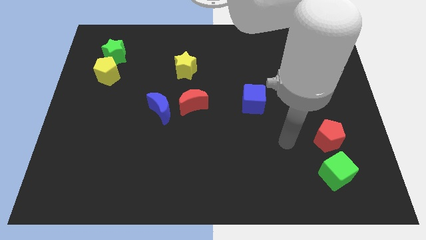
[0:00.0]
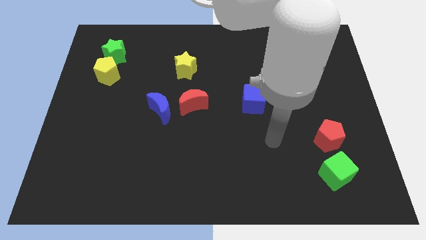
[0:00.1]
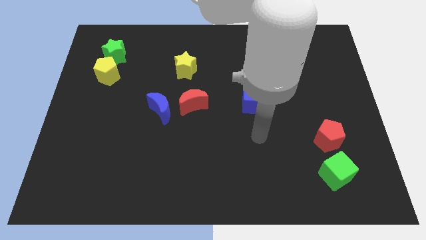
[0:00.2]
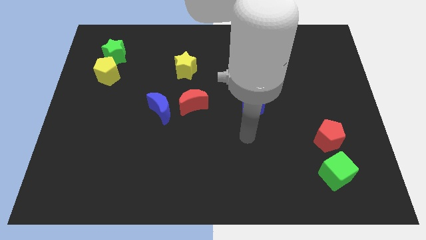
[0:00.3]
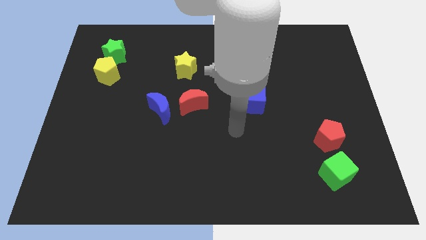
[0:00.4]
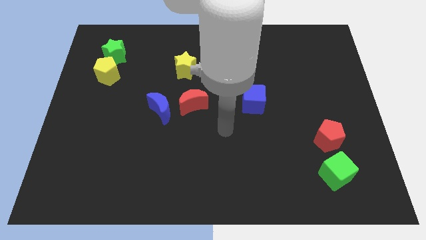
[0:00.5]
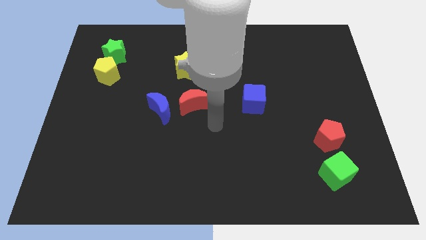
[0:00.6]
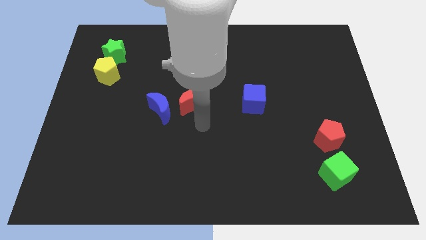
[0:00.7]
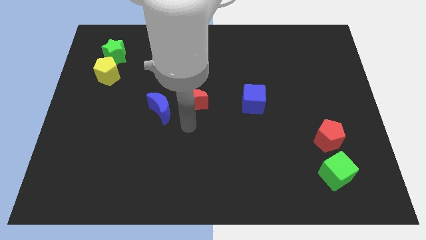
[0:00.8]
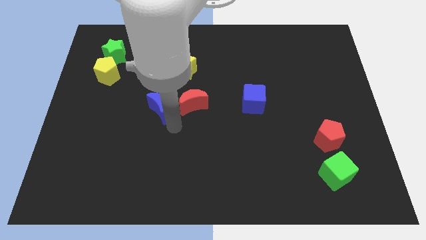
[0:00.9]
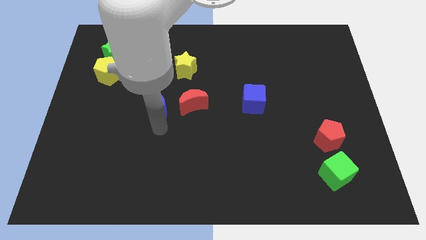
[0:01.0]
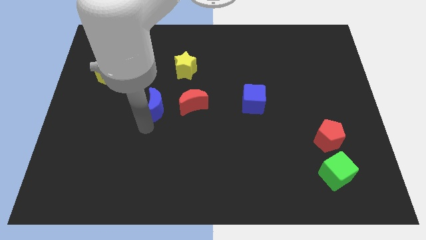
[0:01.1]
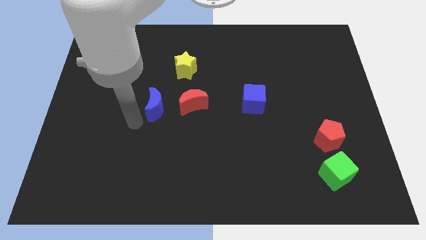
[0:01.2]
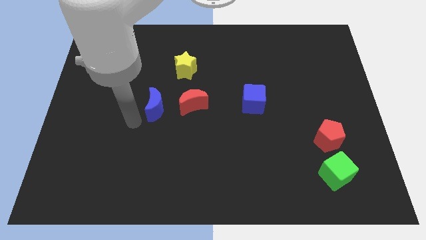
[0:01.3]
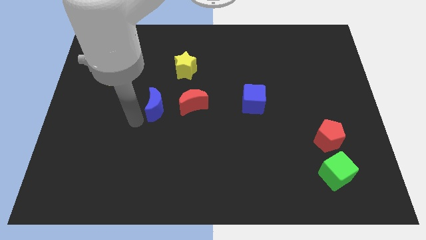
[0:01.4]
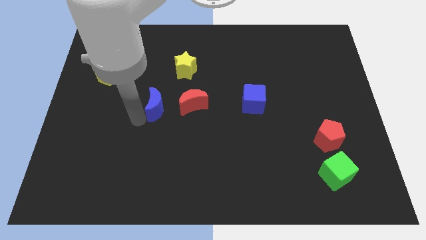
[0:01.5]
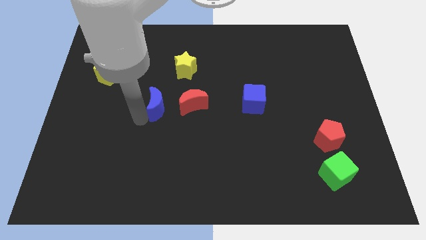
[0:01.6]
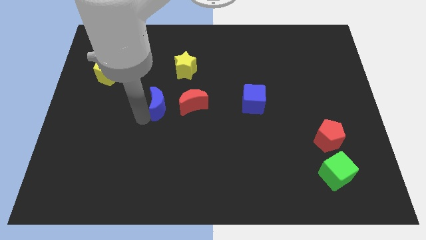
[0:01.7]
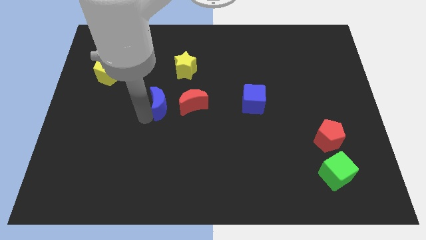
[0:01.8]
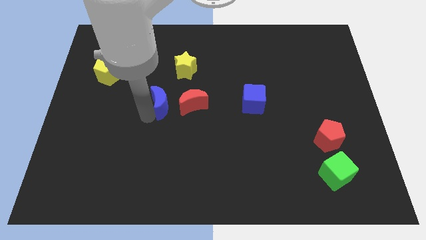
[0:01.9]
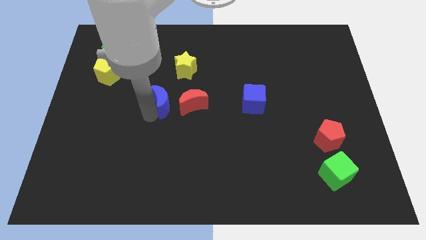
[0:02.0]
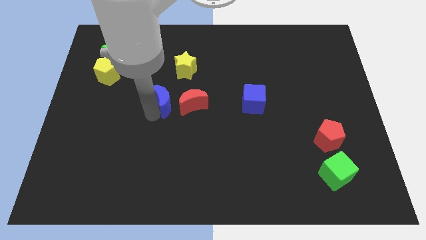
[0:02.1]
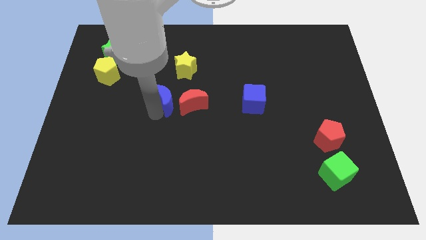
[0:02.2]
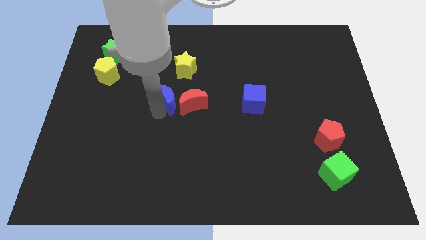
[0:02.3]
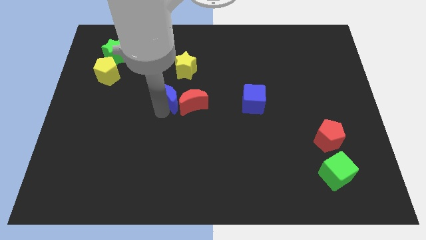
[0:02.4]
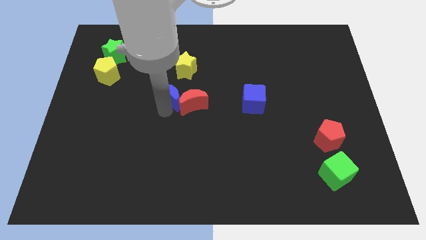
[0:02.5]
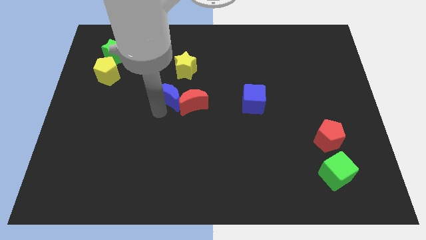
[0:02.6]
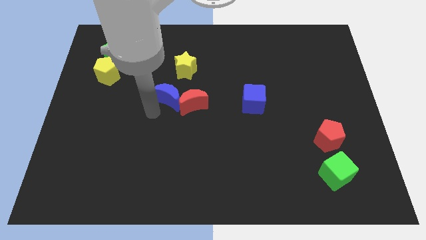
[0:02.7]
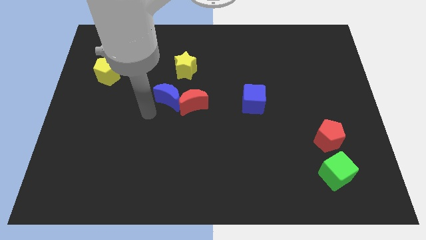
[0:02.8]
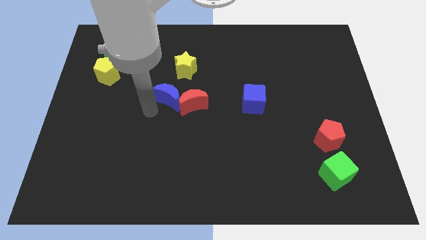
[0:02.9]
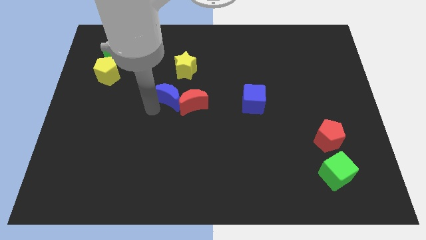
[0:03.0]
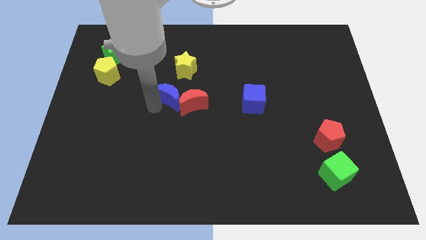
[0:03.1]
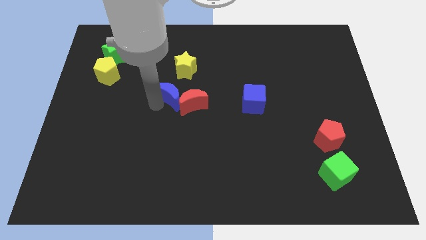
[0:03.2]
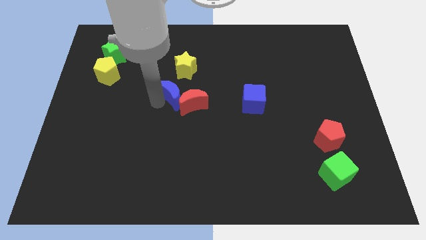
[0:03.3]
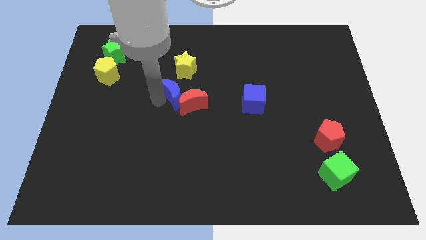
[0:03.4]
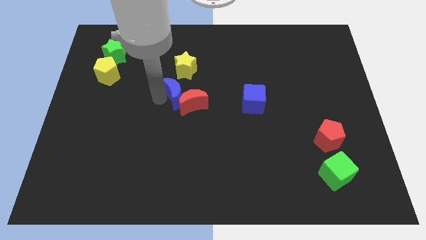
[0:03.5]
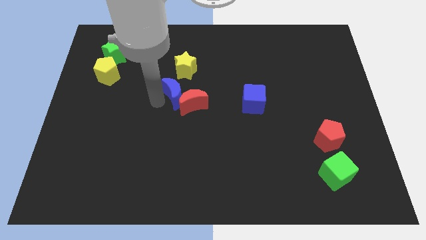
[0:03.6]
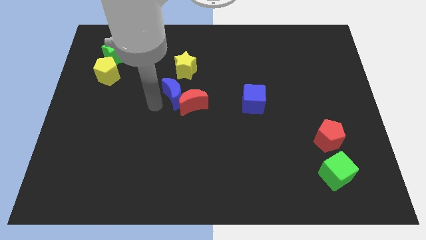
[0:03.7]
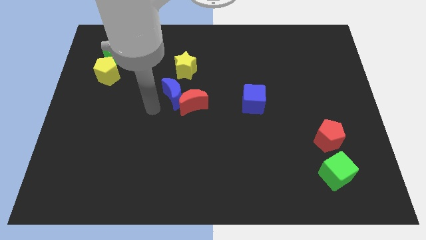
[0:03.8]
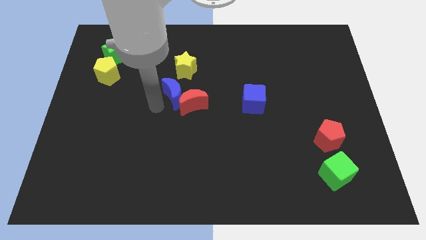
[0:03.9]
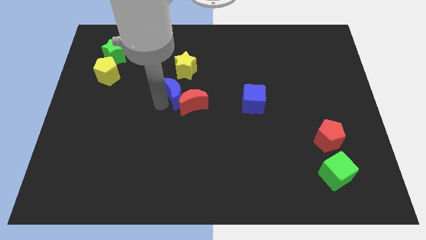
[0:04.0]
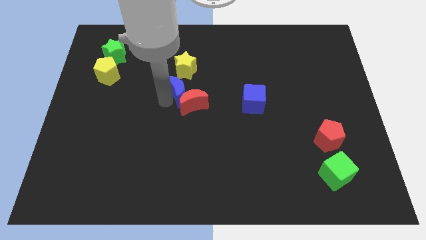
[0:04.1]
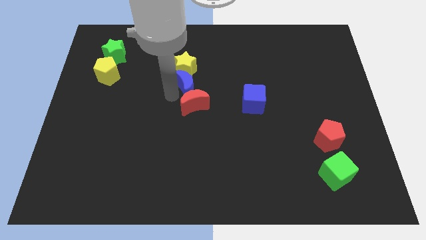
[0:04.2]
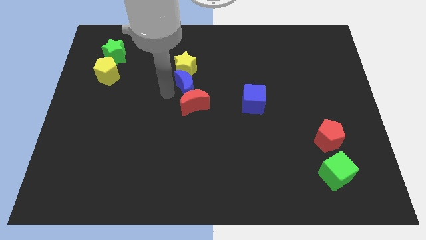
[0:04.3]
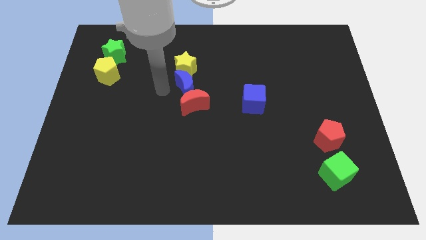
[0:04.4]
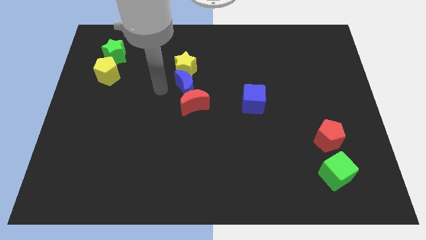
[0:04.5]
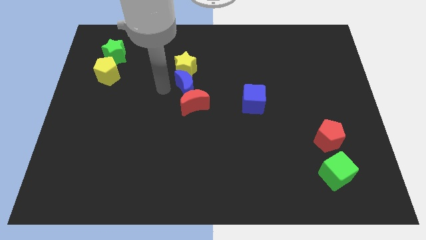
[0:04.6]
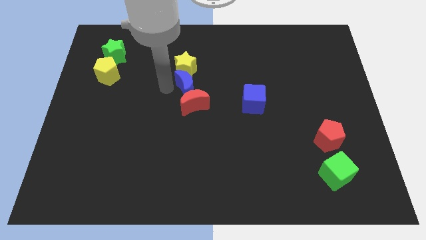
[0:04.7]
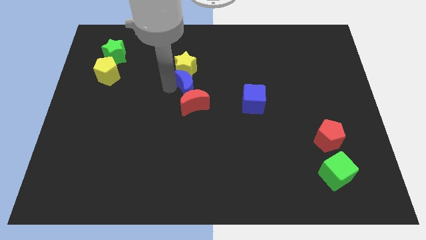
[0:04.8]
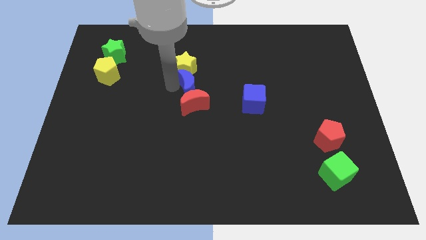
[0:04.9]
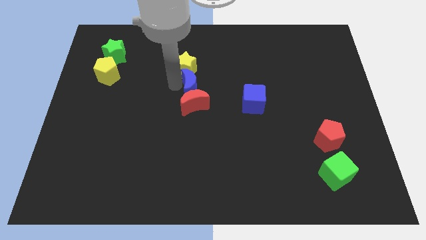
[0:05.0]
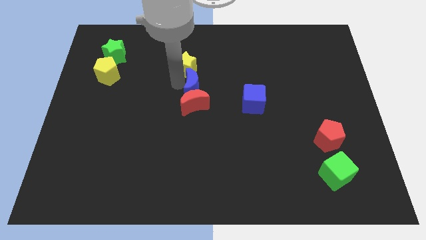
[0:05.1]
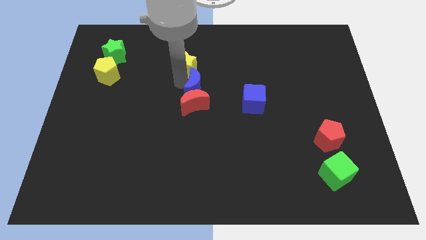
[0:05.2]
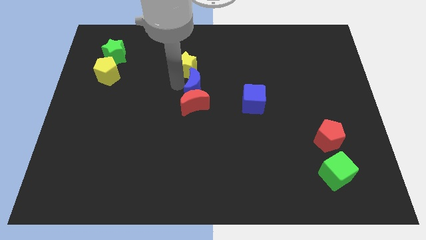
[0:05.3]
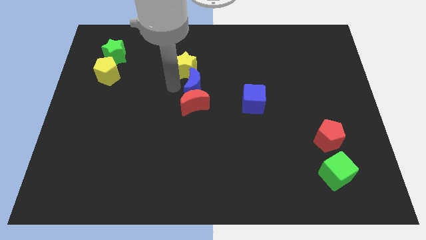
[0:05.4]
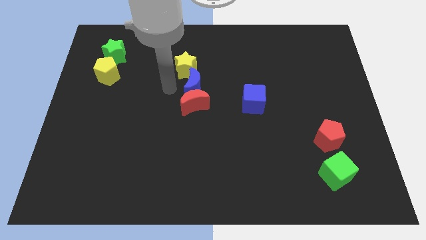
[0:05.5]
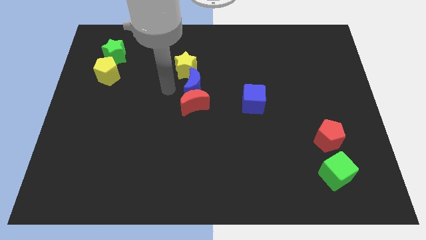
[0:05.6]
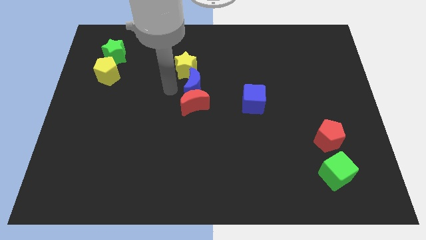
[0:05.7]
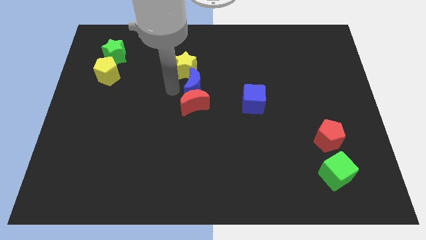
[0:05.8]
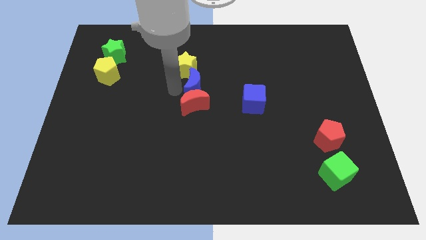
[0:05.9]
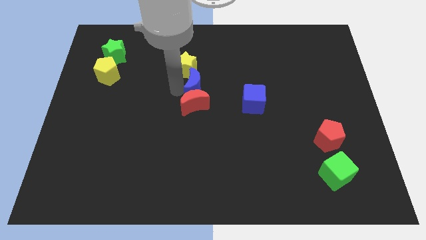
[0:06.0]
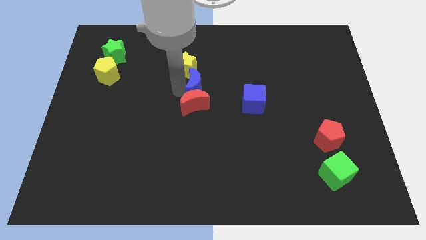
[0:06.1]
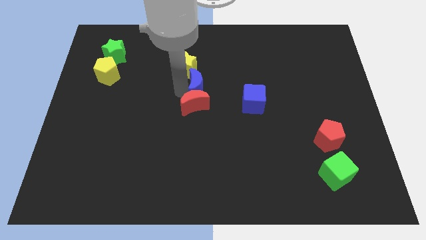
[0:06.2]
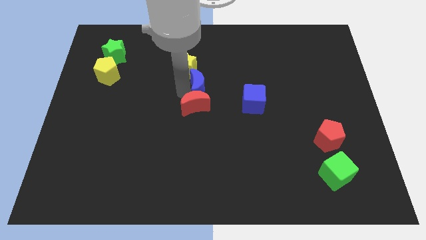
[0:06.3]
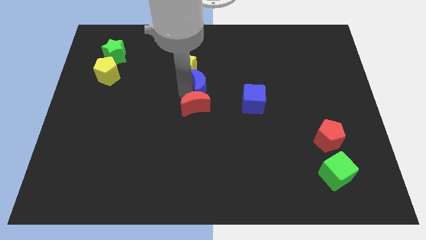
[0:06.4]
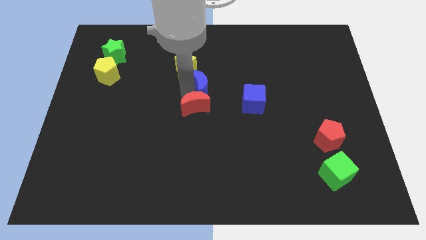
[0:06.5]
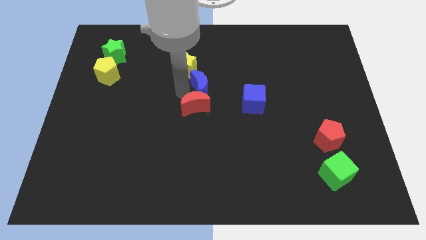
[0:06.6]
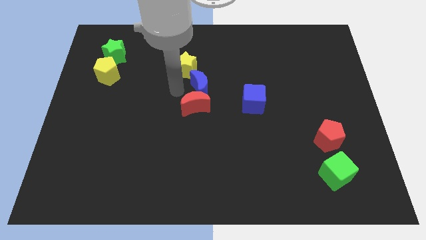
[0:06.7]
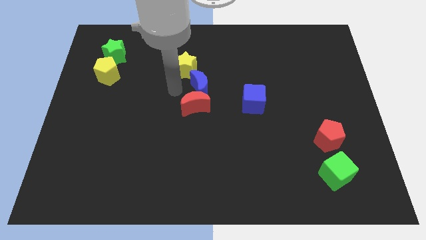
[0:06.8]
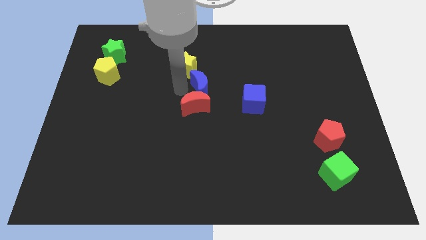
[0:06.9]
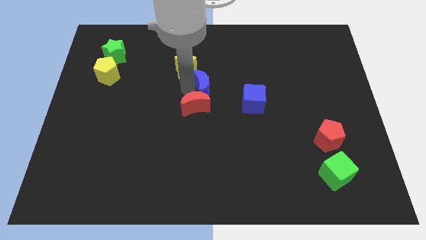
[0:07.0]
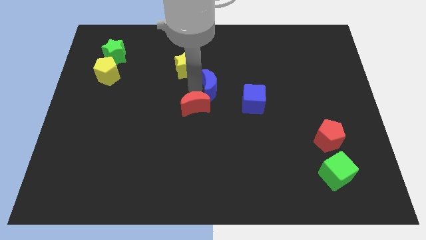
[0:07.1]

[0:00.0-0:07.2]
move the blue moon to the top left of the blue cube
